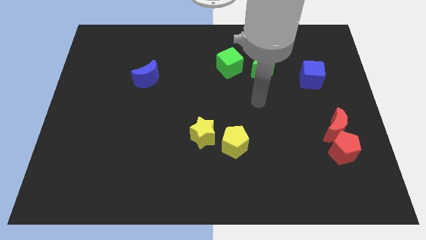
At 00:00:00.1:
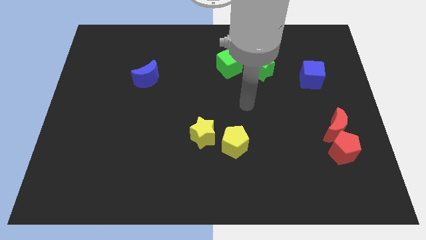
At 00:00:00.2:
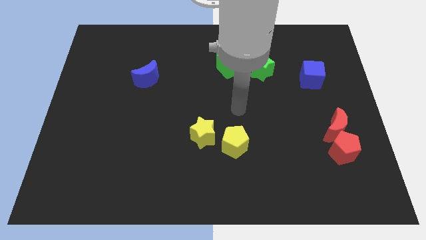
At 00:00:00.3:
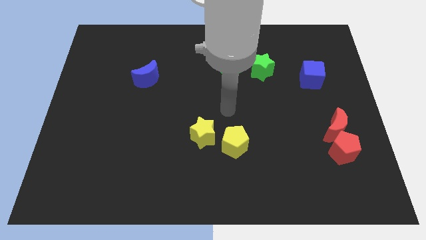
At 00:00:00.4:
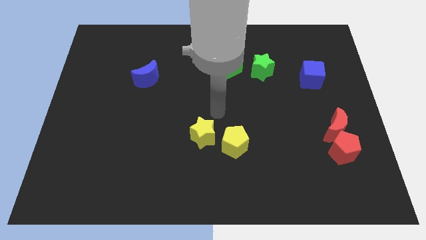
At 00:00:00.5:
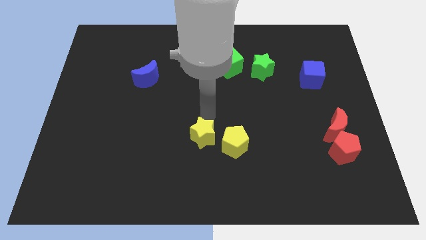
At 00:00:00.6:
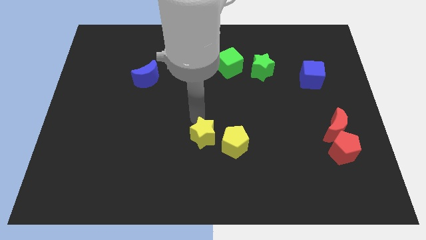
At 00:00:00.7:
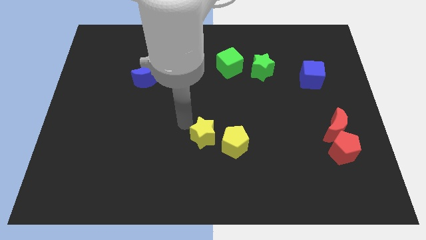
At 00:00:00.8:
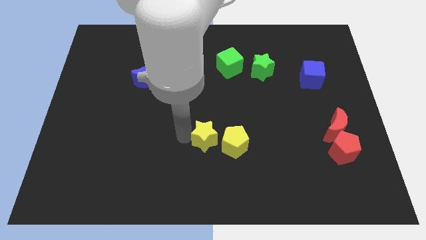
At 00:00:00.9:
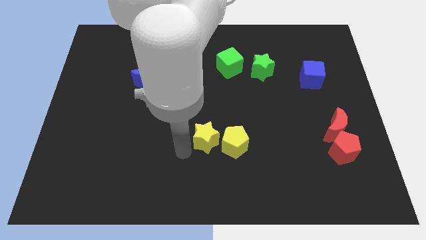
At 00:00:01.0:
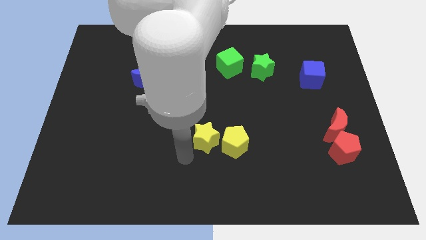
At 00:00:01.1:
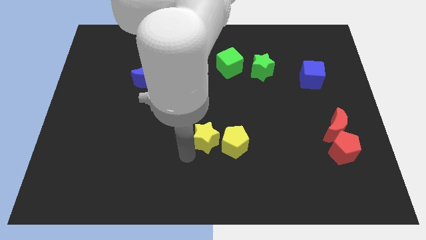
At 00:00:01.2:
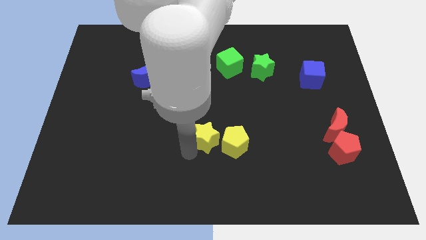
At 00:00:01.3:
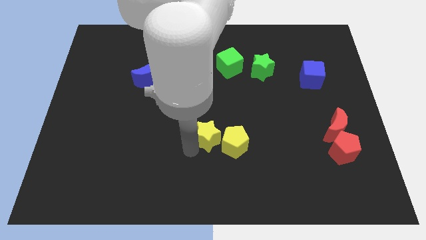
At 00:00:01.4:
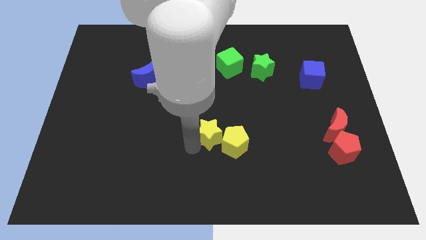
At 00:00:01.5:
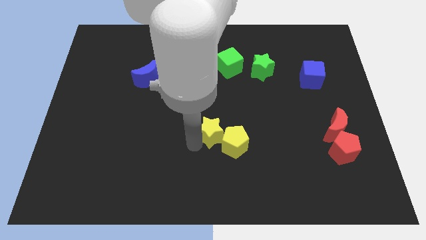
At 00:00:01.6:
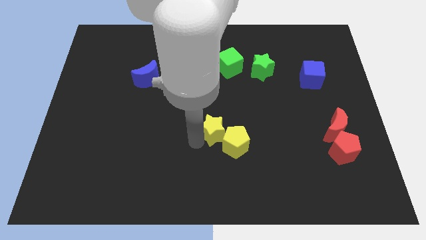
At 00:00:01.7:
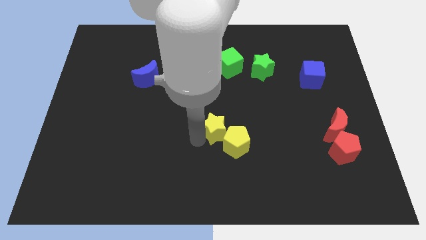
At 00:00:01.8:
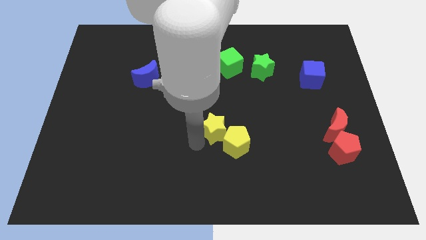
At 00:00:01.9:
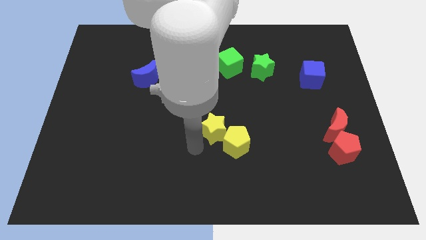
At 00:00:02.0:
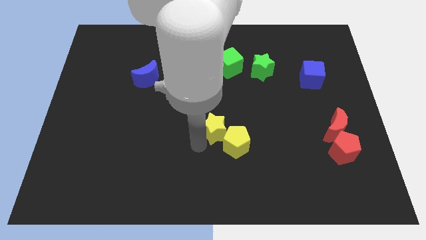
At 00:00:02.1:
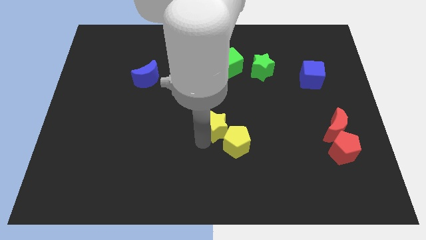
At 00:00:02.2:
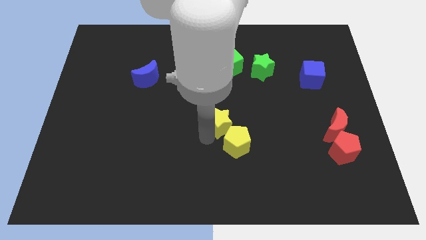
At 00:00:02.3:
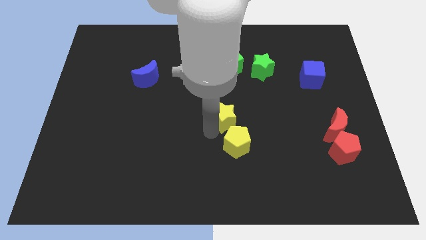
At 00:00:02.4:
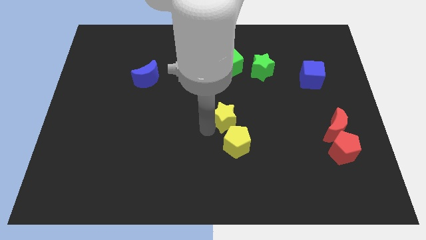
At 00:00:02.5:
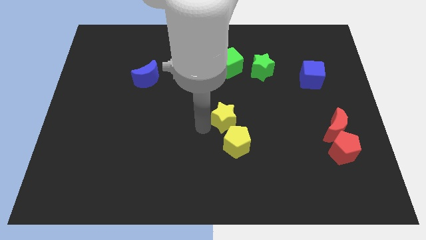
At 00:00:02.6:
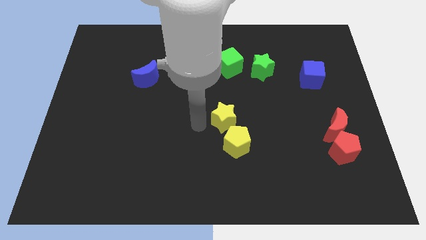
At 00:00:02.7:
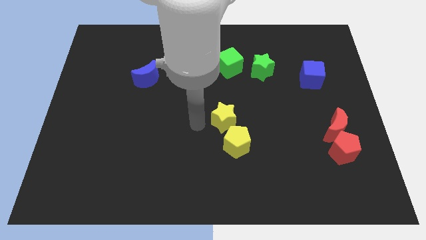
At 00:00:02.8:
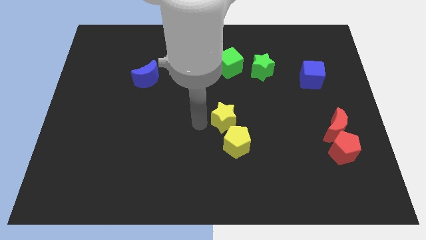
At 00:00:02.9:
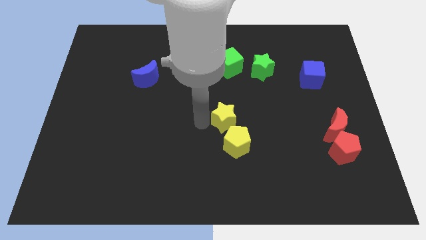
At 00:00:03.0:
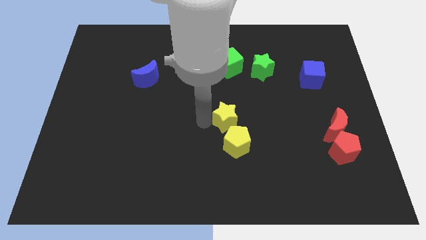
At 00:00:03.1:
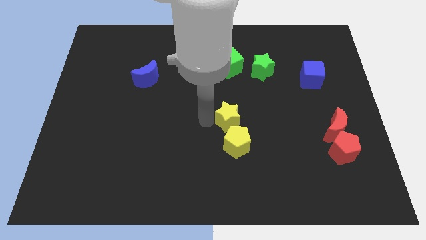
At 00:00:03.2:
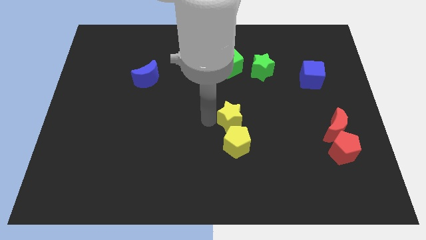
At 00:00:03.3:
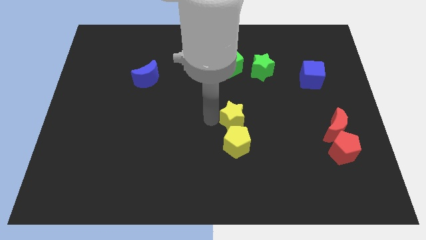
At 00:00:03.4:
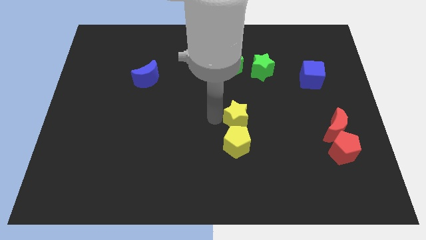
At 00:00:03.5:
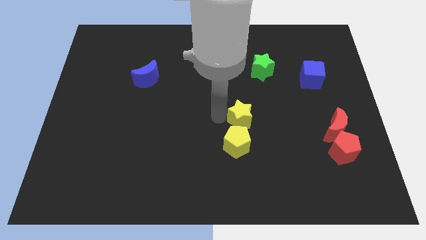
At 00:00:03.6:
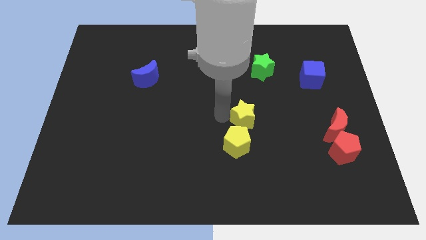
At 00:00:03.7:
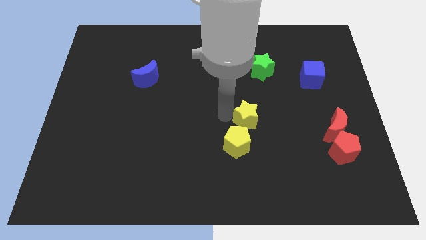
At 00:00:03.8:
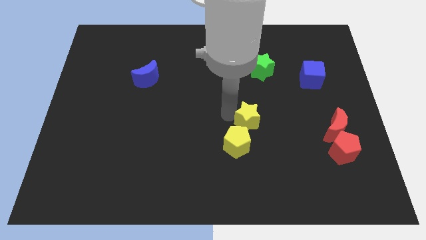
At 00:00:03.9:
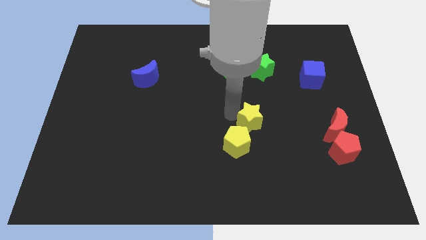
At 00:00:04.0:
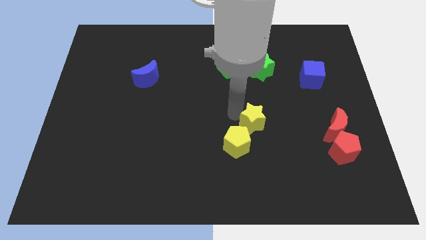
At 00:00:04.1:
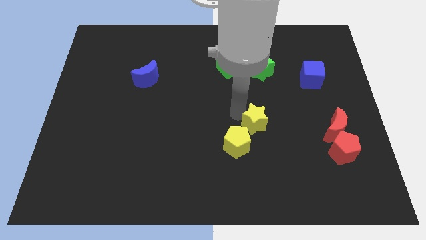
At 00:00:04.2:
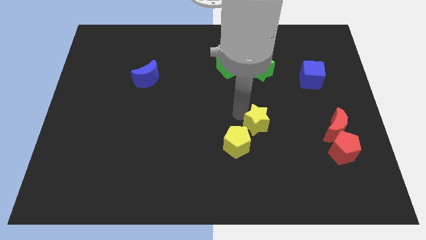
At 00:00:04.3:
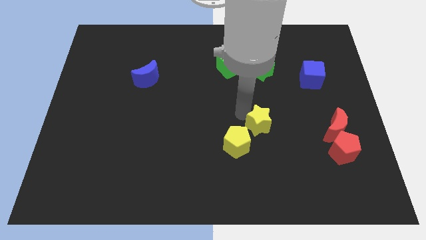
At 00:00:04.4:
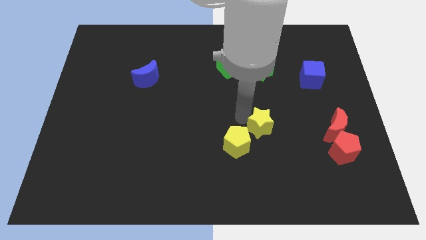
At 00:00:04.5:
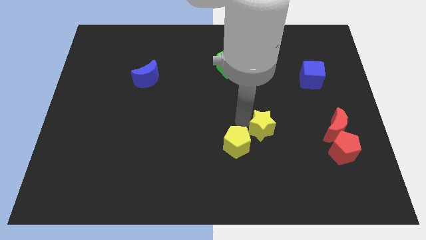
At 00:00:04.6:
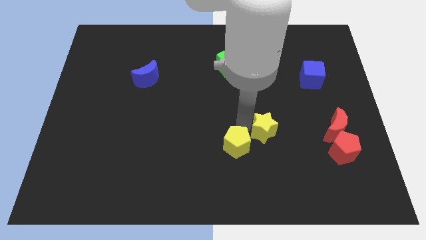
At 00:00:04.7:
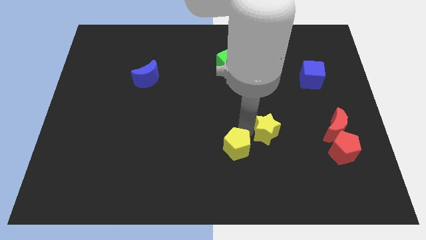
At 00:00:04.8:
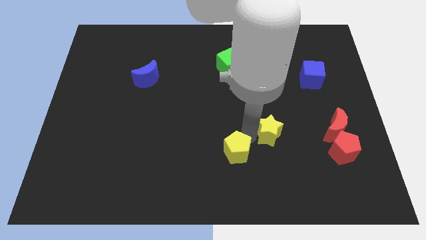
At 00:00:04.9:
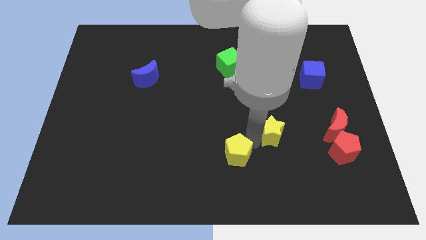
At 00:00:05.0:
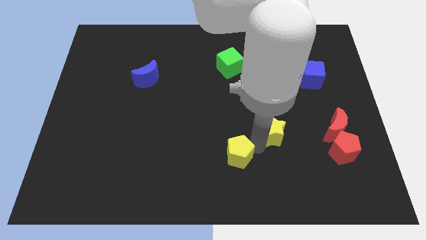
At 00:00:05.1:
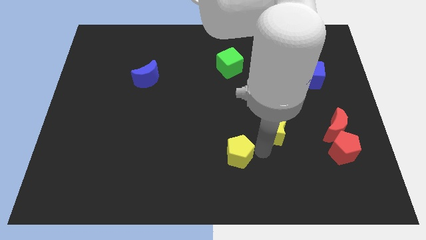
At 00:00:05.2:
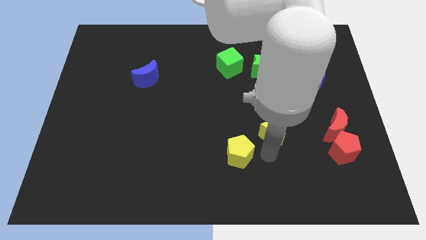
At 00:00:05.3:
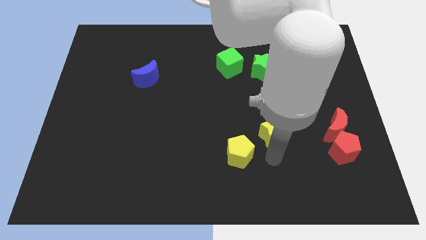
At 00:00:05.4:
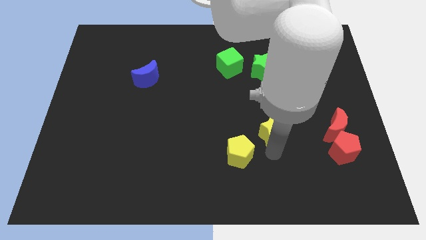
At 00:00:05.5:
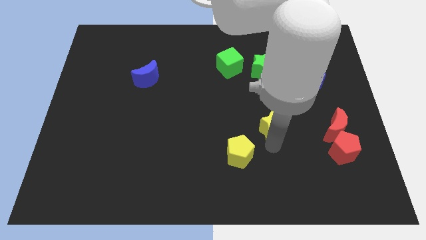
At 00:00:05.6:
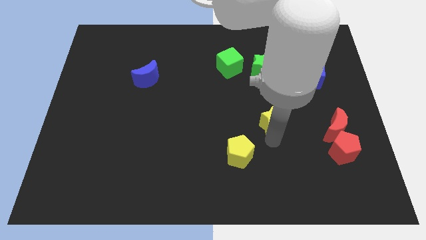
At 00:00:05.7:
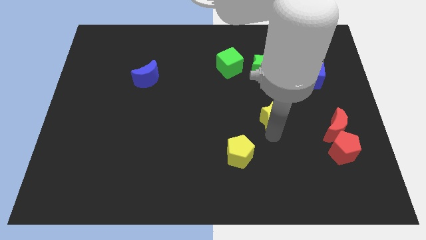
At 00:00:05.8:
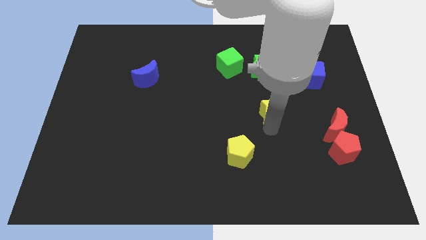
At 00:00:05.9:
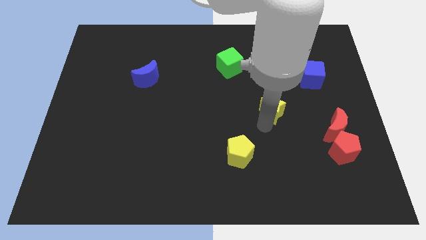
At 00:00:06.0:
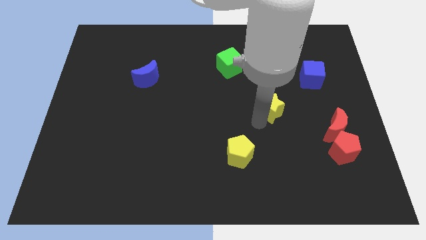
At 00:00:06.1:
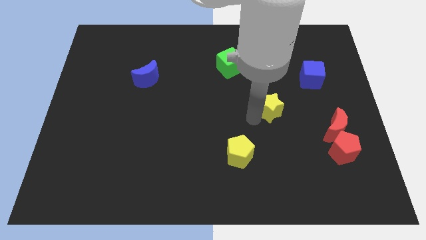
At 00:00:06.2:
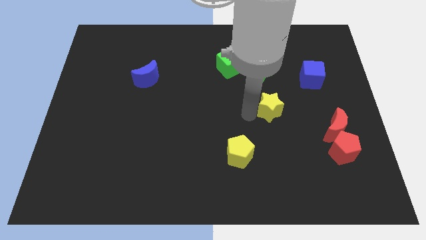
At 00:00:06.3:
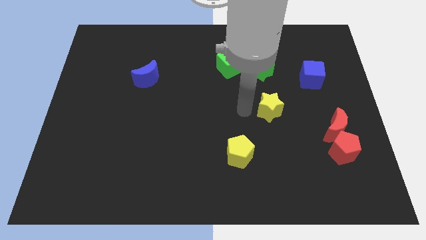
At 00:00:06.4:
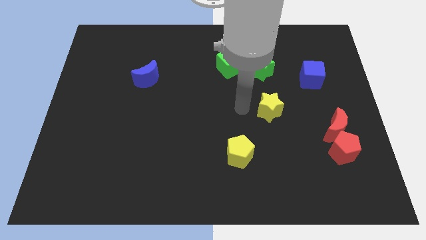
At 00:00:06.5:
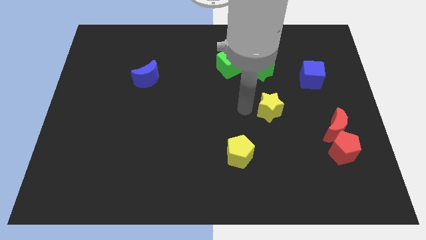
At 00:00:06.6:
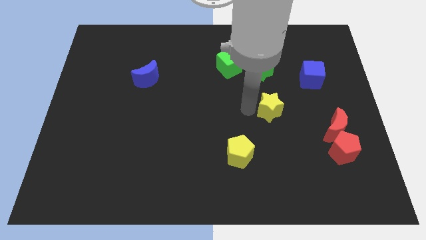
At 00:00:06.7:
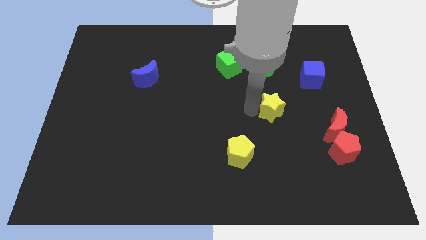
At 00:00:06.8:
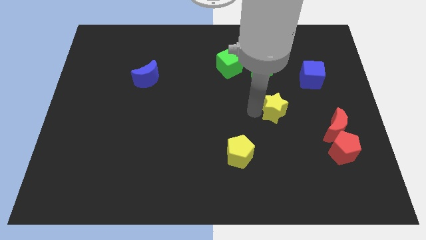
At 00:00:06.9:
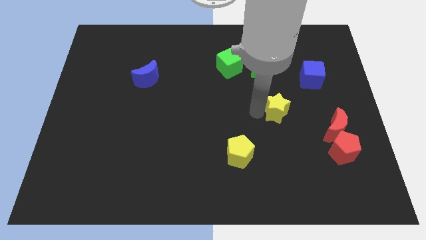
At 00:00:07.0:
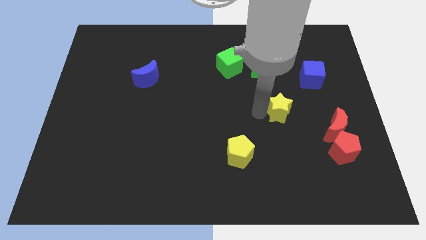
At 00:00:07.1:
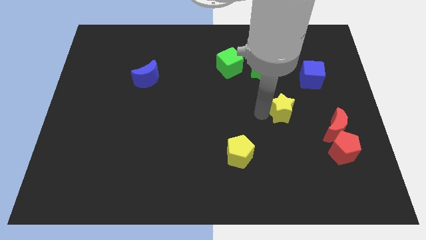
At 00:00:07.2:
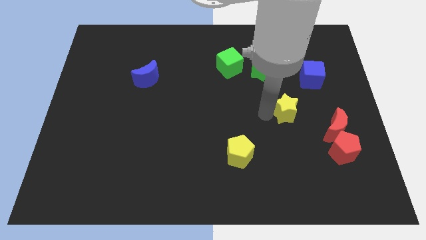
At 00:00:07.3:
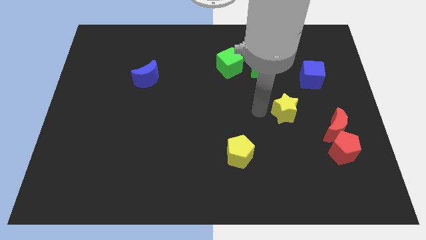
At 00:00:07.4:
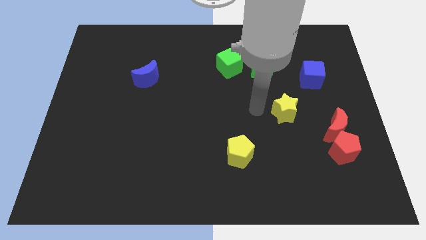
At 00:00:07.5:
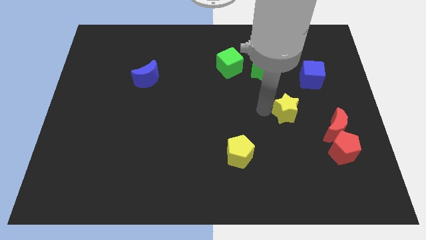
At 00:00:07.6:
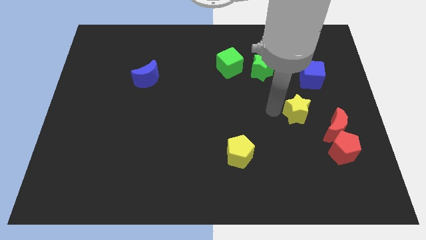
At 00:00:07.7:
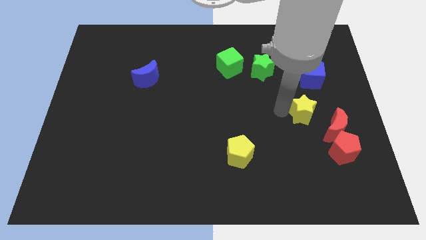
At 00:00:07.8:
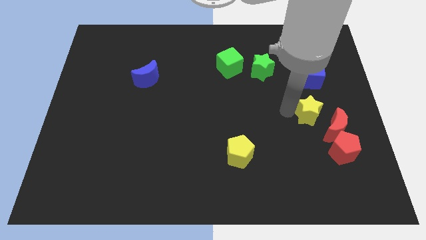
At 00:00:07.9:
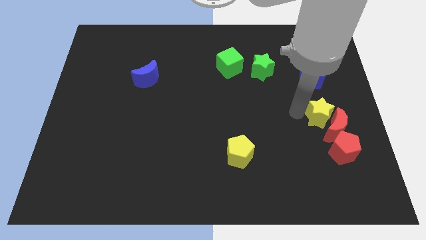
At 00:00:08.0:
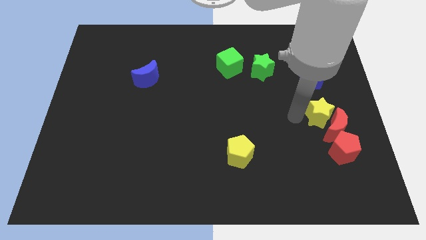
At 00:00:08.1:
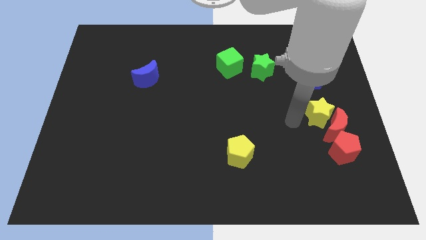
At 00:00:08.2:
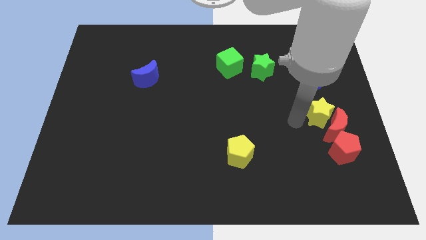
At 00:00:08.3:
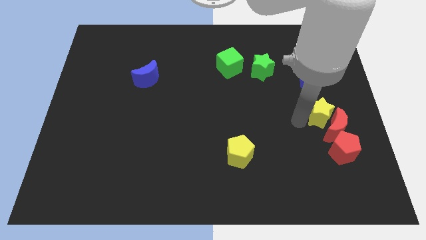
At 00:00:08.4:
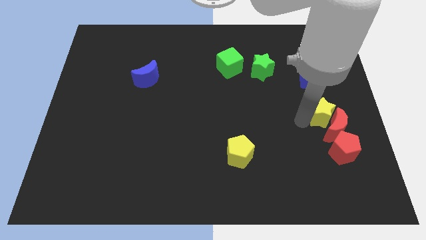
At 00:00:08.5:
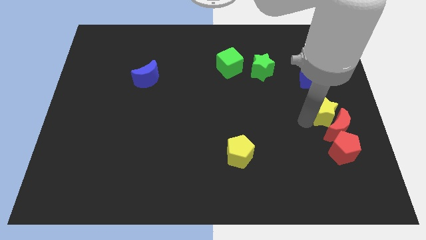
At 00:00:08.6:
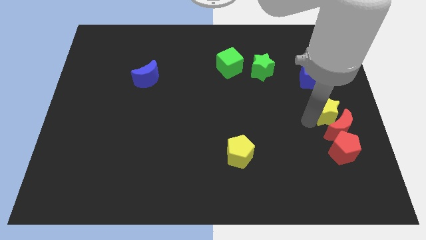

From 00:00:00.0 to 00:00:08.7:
slide the yellow star to the center right
